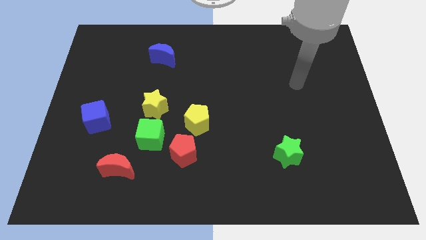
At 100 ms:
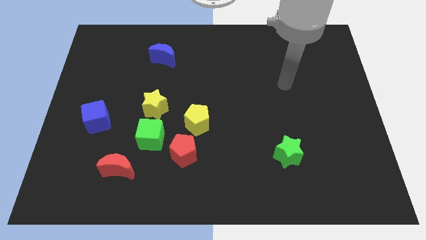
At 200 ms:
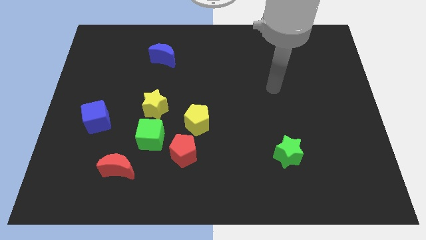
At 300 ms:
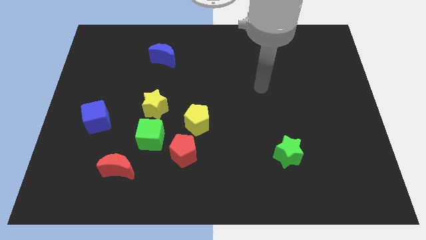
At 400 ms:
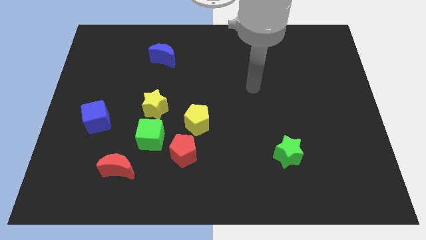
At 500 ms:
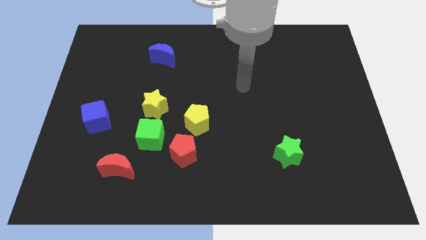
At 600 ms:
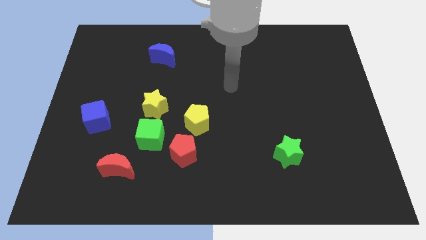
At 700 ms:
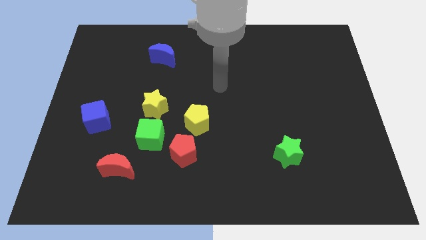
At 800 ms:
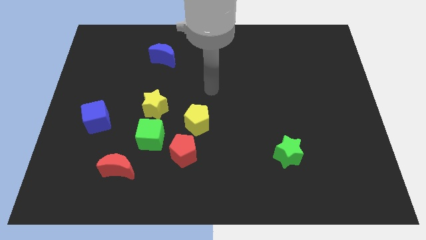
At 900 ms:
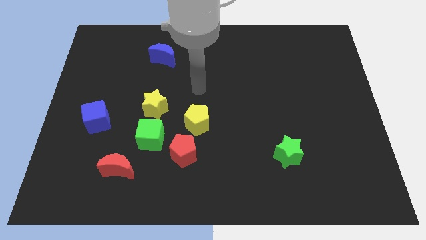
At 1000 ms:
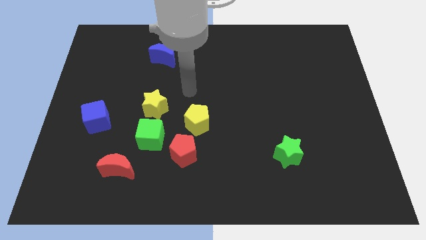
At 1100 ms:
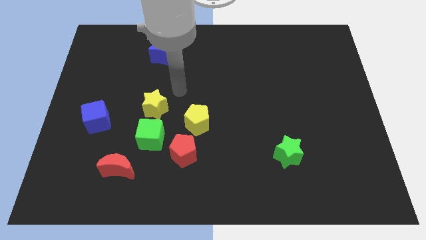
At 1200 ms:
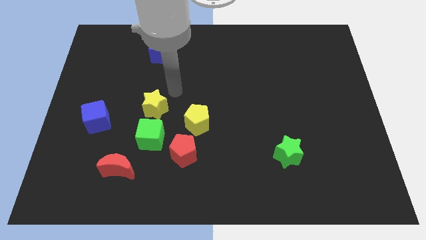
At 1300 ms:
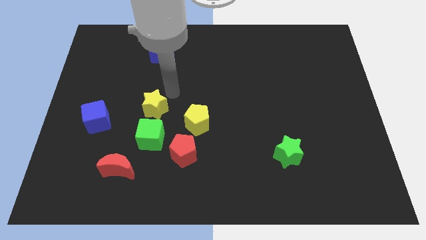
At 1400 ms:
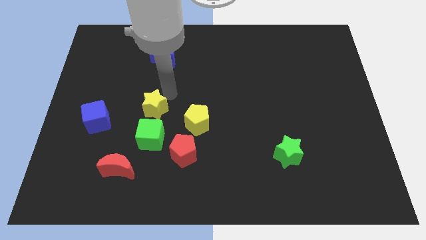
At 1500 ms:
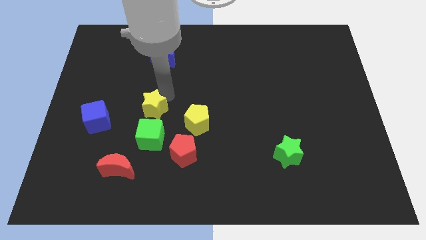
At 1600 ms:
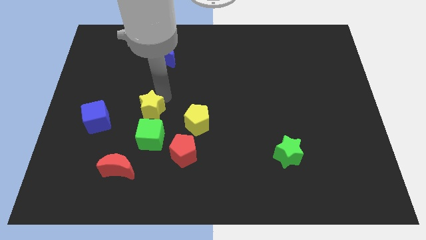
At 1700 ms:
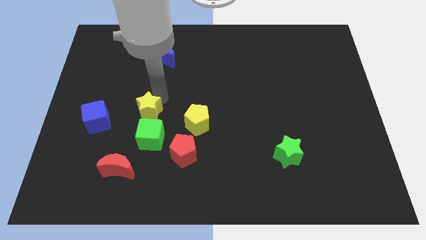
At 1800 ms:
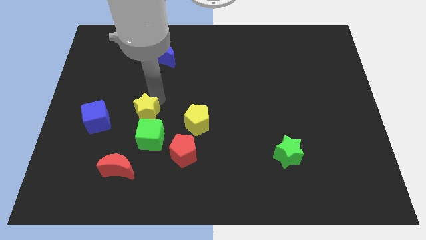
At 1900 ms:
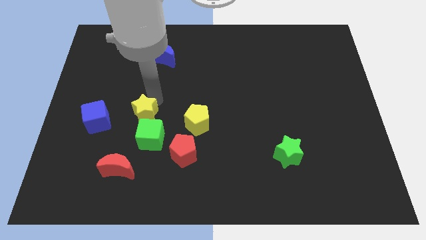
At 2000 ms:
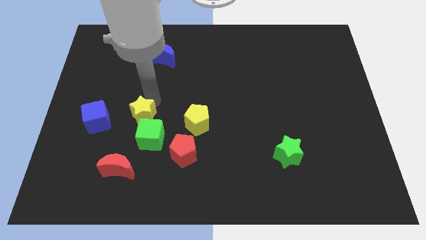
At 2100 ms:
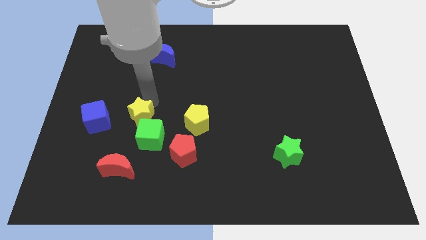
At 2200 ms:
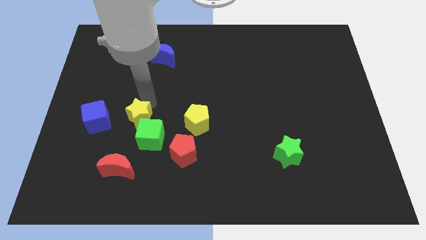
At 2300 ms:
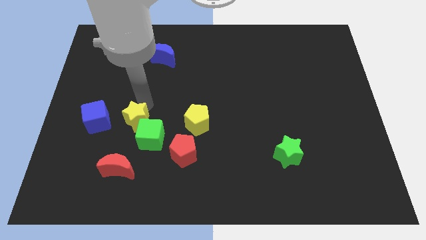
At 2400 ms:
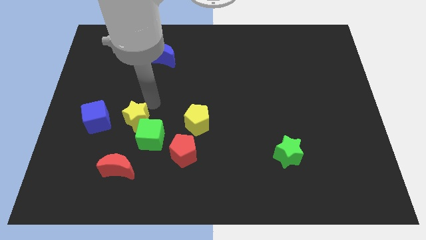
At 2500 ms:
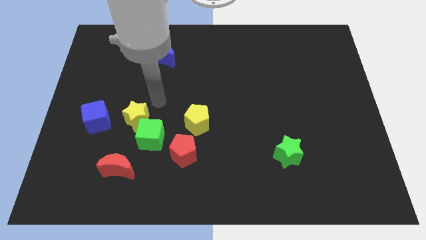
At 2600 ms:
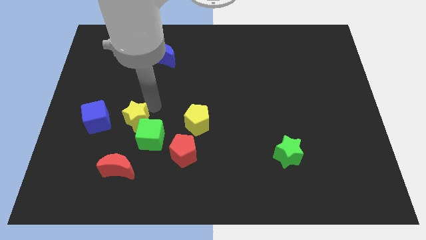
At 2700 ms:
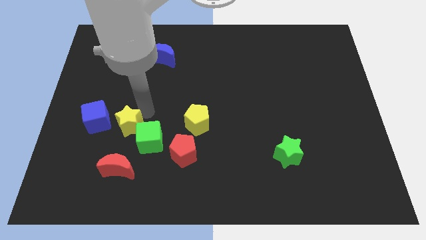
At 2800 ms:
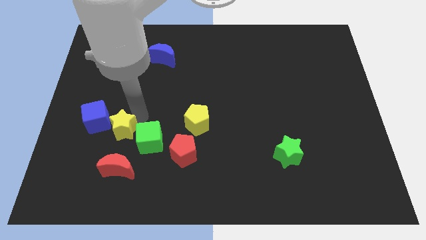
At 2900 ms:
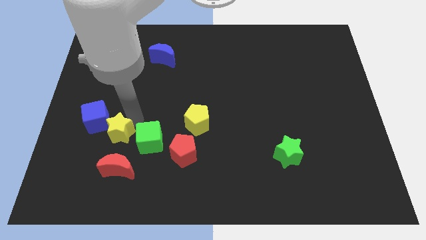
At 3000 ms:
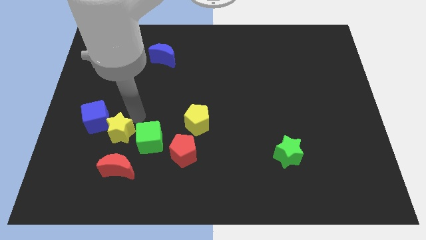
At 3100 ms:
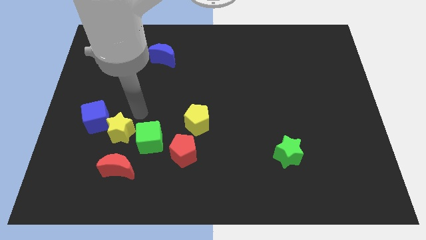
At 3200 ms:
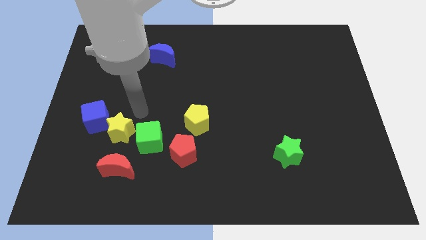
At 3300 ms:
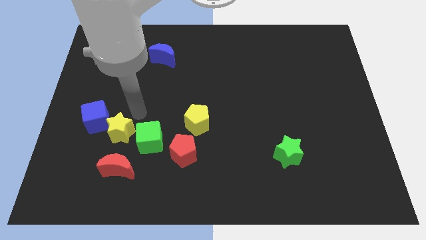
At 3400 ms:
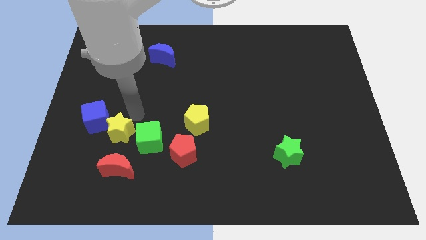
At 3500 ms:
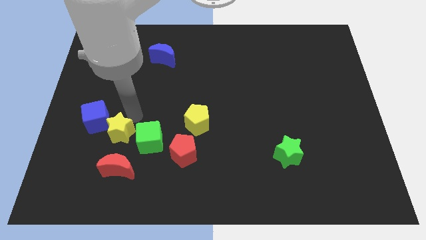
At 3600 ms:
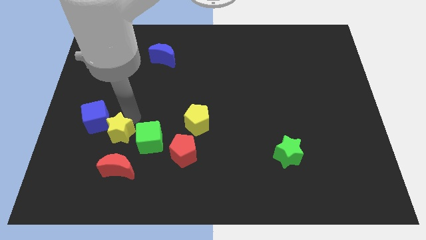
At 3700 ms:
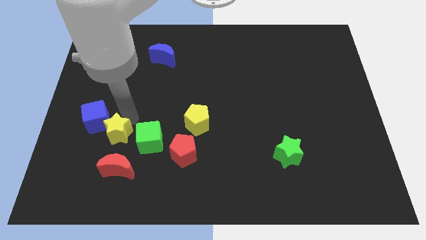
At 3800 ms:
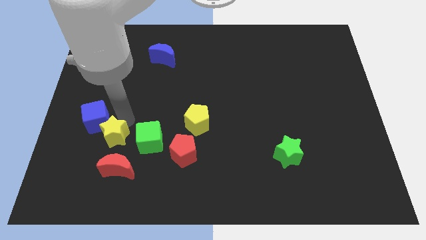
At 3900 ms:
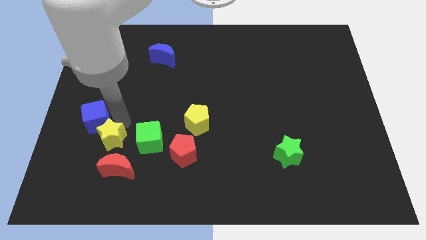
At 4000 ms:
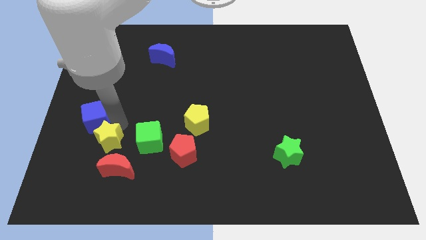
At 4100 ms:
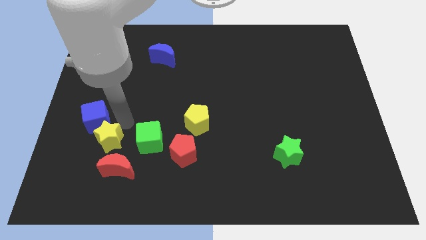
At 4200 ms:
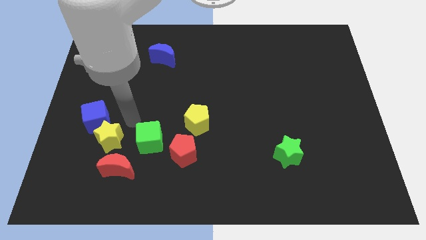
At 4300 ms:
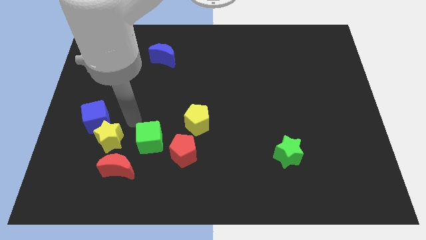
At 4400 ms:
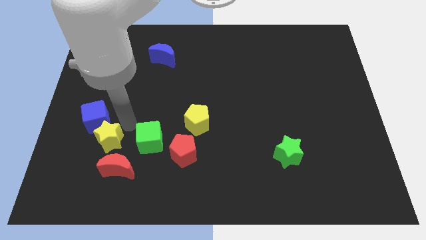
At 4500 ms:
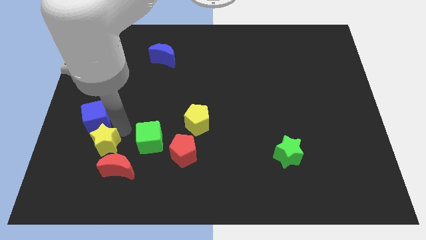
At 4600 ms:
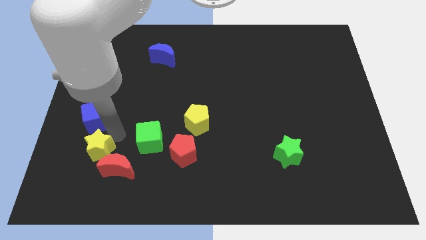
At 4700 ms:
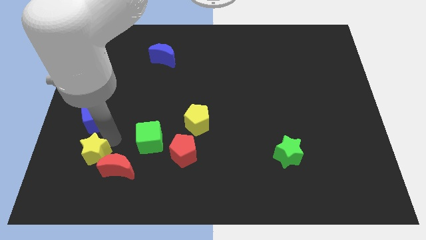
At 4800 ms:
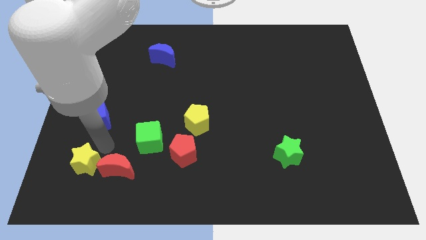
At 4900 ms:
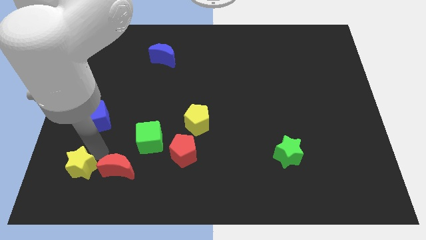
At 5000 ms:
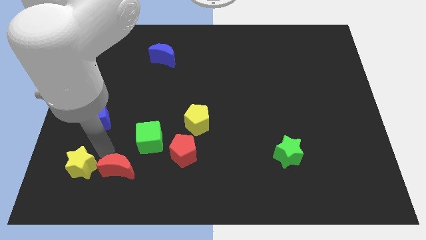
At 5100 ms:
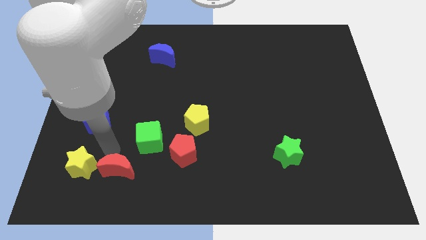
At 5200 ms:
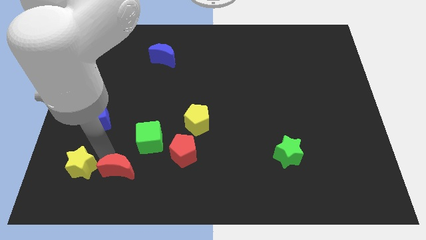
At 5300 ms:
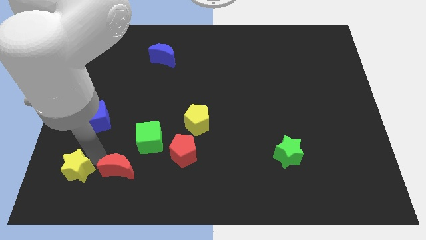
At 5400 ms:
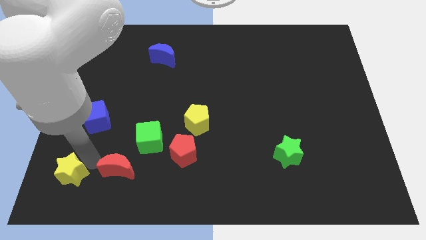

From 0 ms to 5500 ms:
slide the yellow star to the bottom left of the board

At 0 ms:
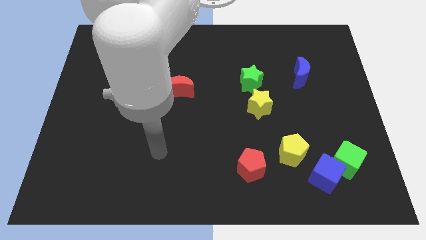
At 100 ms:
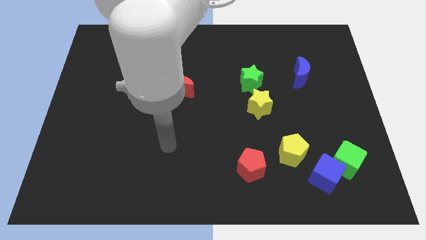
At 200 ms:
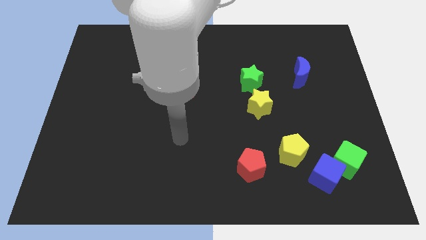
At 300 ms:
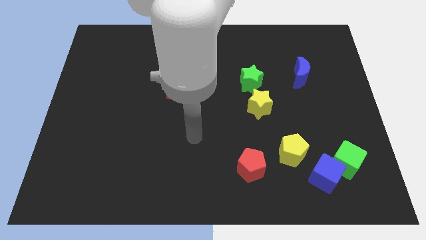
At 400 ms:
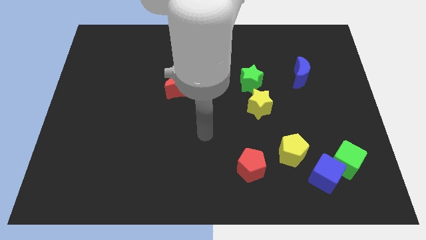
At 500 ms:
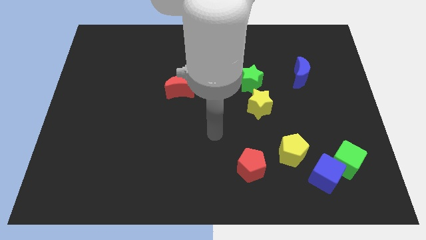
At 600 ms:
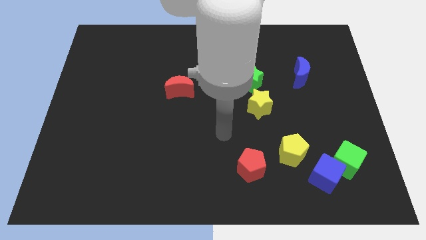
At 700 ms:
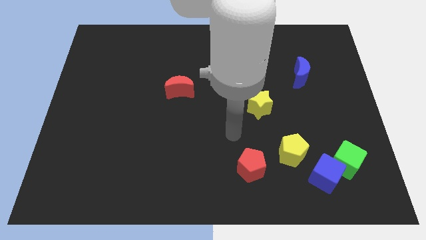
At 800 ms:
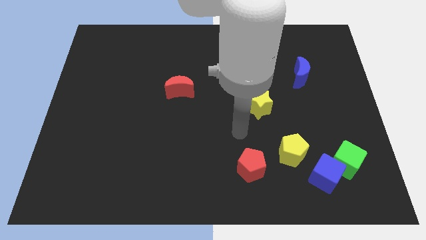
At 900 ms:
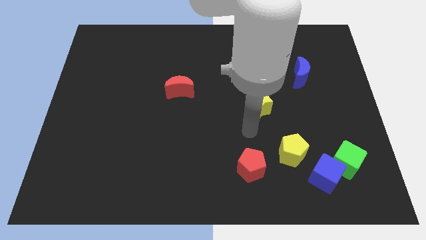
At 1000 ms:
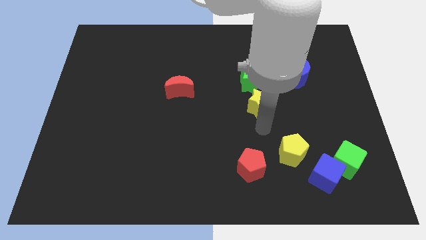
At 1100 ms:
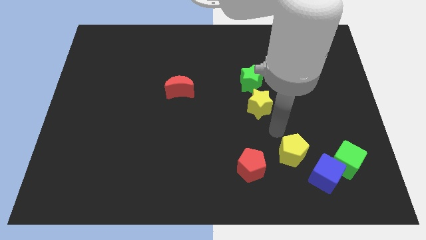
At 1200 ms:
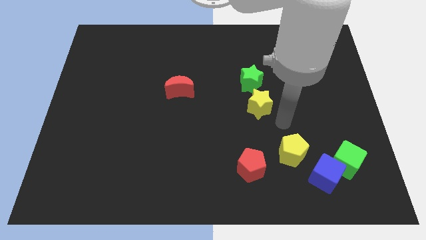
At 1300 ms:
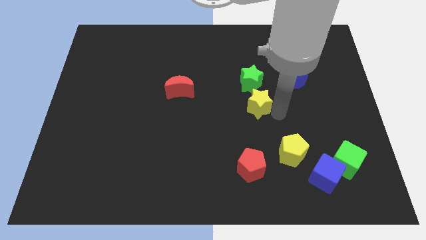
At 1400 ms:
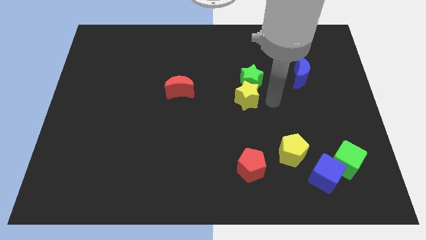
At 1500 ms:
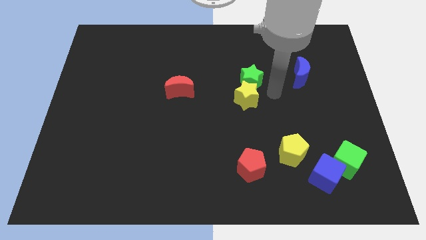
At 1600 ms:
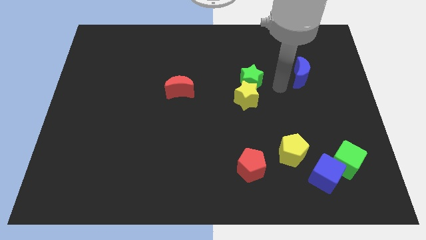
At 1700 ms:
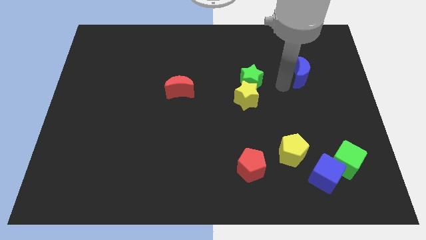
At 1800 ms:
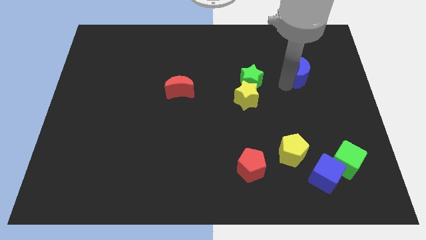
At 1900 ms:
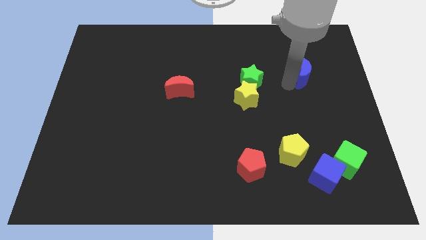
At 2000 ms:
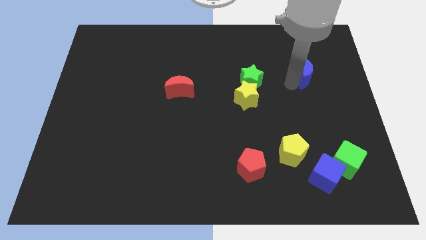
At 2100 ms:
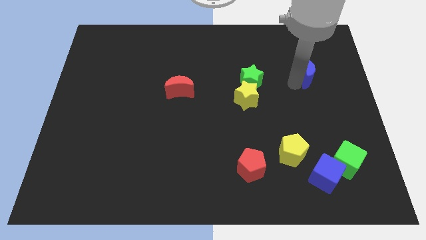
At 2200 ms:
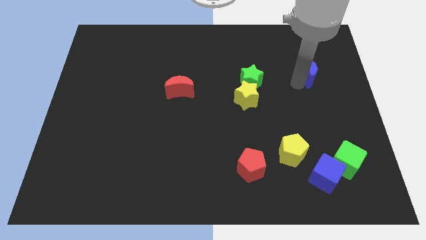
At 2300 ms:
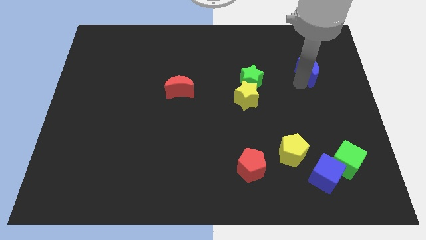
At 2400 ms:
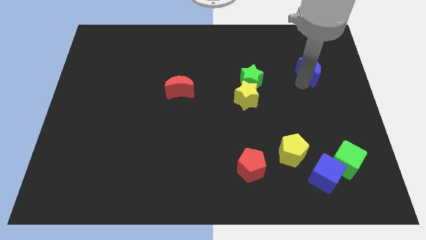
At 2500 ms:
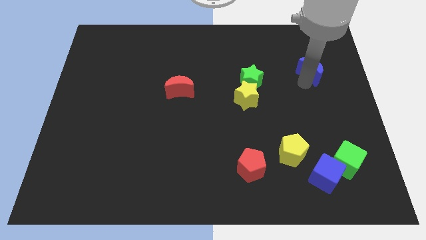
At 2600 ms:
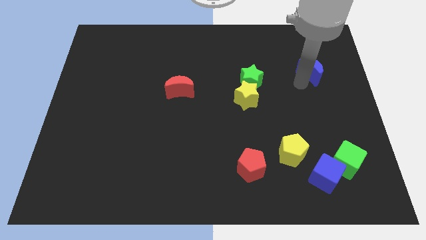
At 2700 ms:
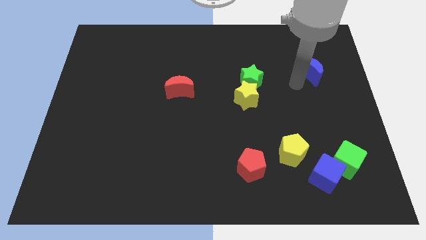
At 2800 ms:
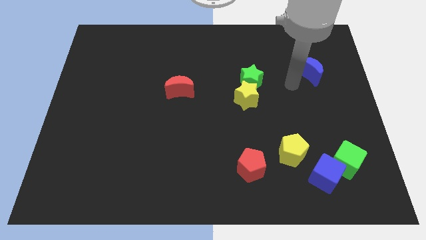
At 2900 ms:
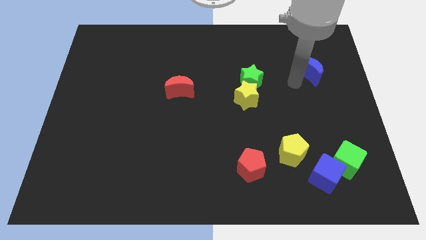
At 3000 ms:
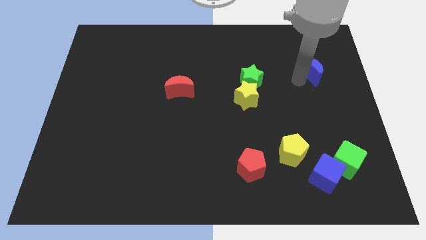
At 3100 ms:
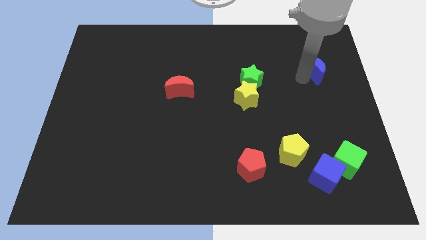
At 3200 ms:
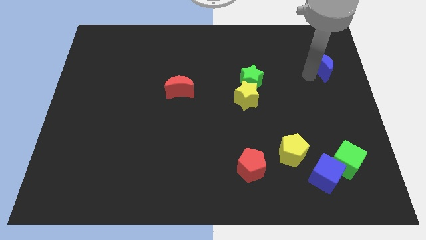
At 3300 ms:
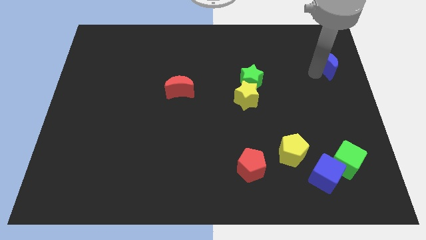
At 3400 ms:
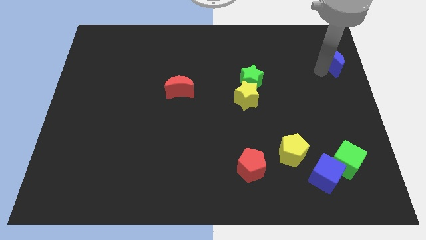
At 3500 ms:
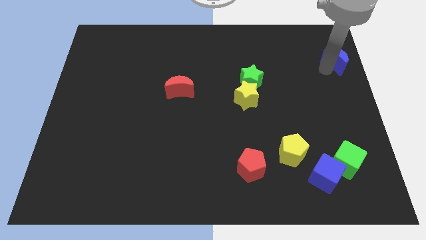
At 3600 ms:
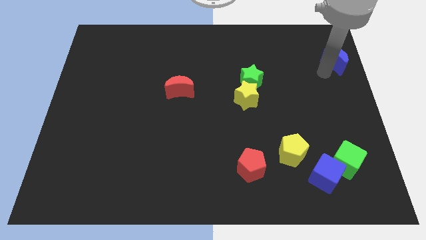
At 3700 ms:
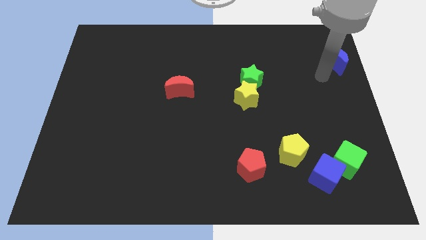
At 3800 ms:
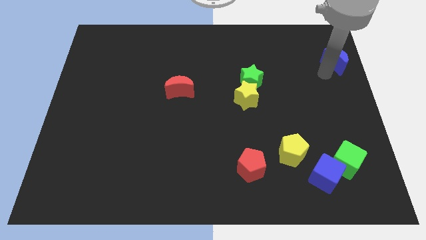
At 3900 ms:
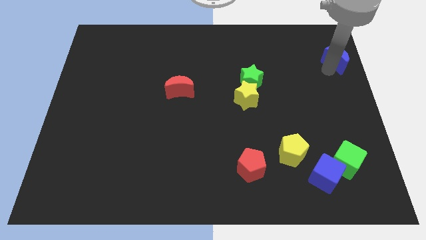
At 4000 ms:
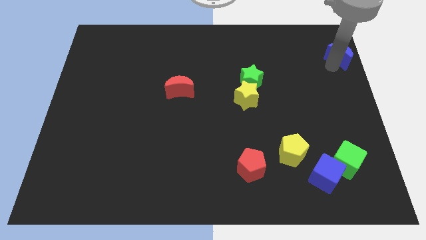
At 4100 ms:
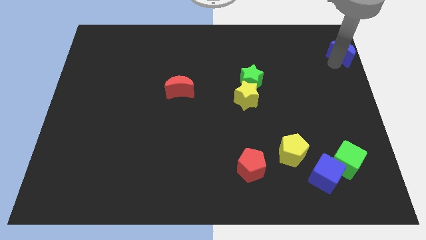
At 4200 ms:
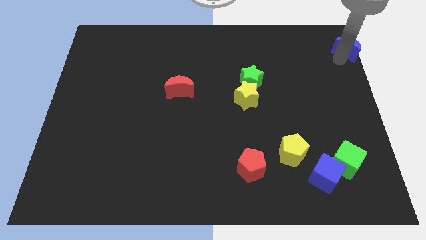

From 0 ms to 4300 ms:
push the blue moon to the top right
